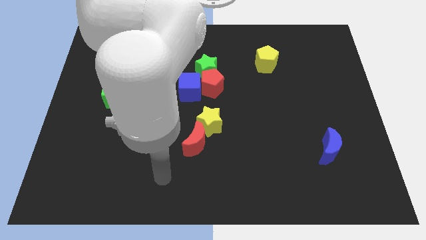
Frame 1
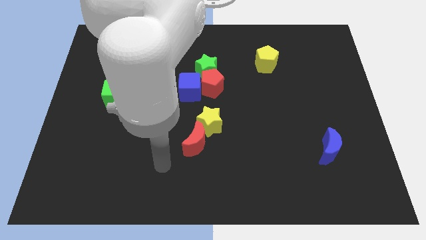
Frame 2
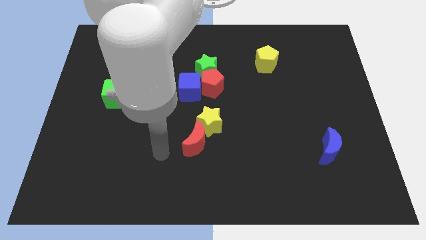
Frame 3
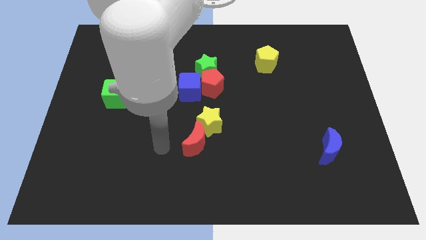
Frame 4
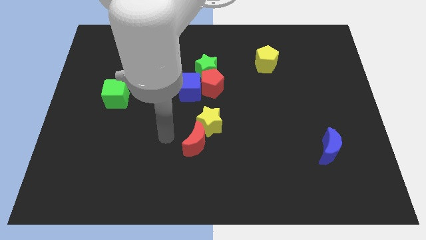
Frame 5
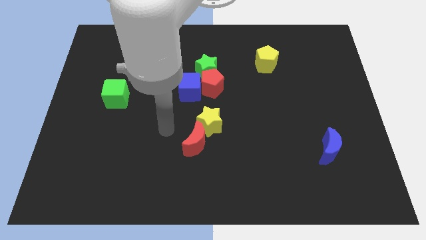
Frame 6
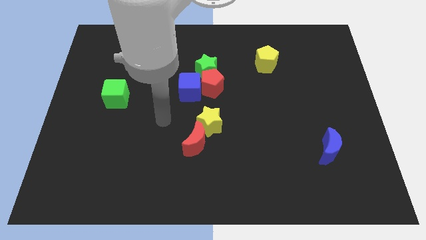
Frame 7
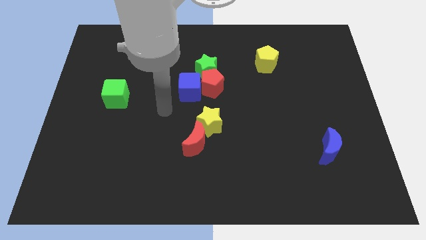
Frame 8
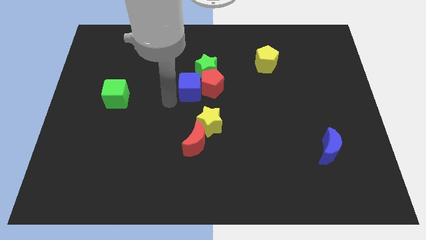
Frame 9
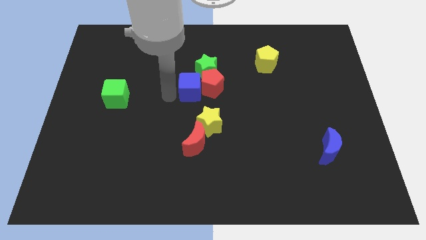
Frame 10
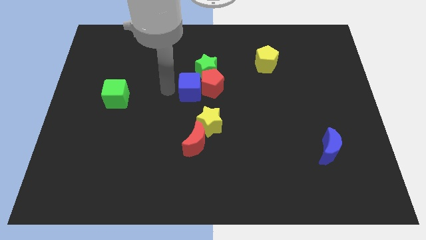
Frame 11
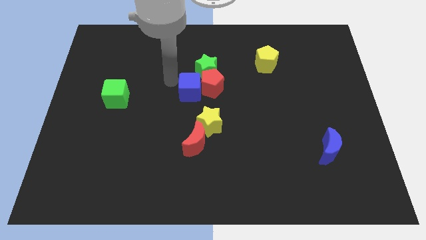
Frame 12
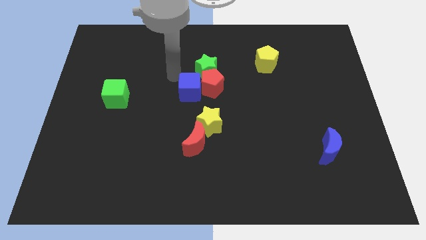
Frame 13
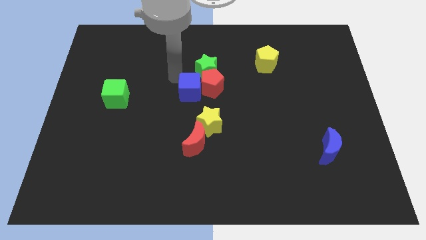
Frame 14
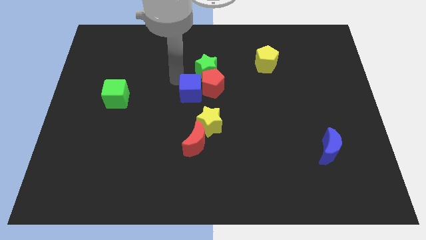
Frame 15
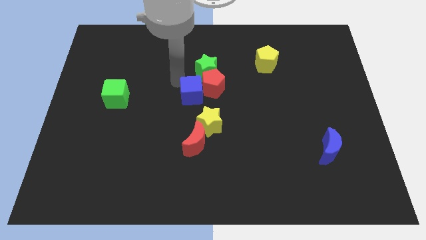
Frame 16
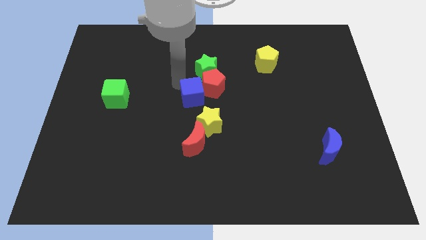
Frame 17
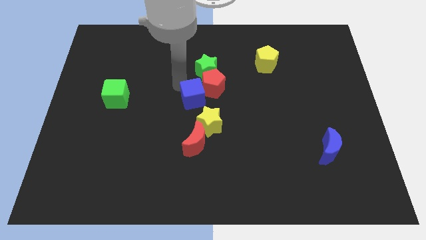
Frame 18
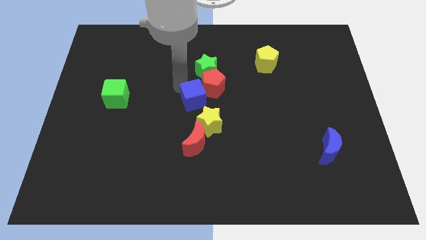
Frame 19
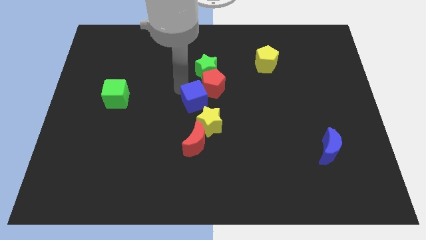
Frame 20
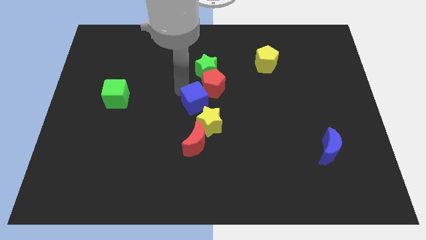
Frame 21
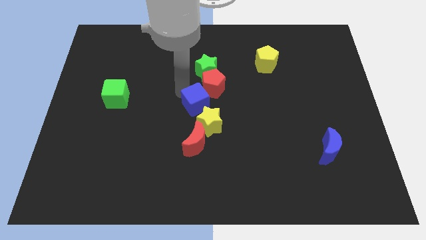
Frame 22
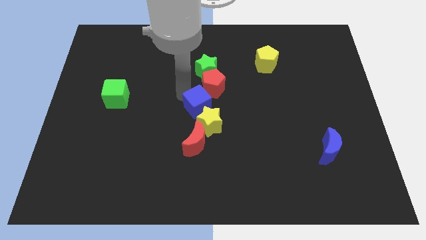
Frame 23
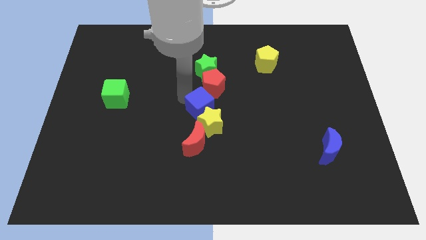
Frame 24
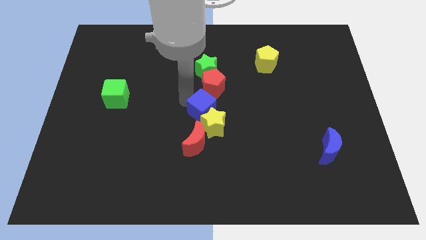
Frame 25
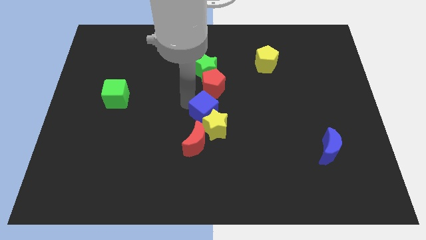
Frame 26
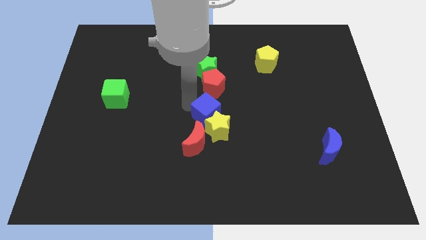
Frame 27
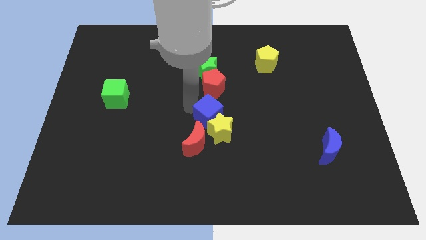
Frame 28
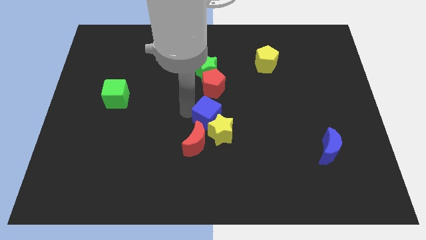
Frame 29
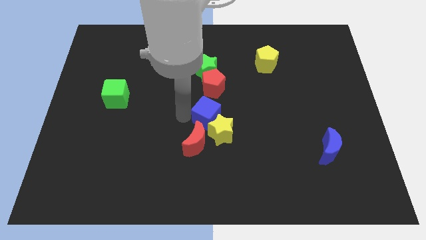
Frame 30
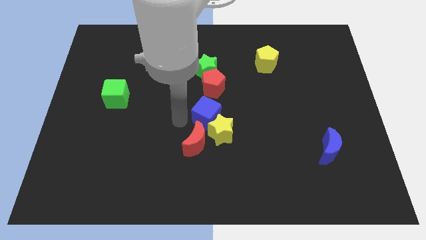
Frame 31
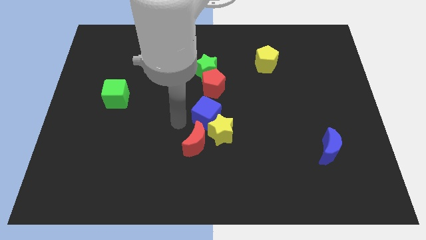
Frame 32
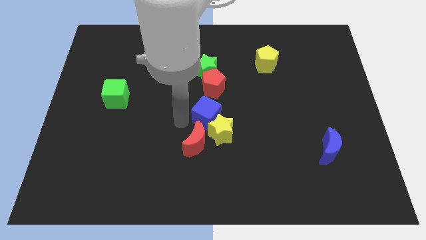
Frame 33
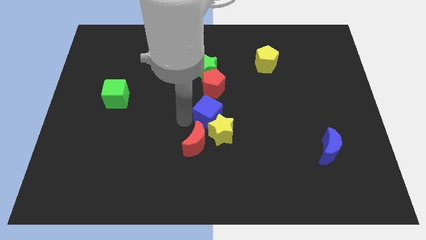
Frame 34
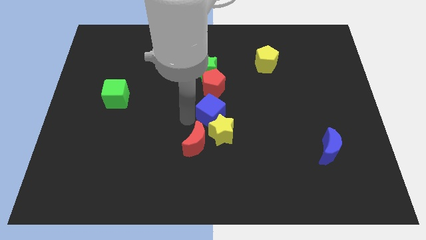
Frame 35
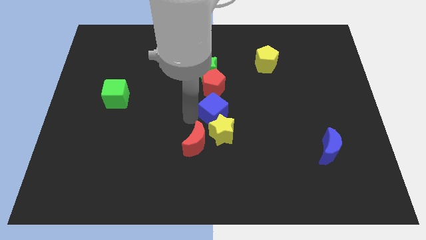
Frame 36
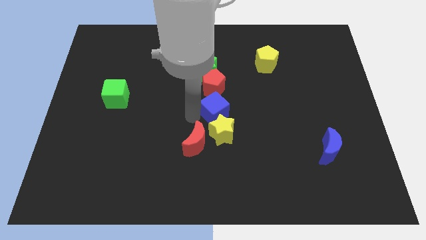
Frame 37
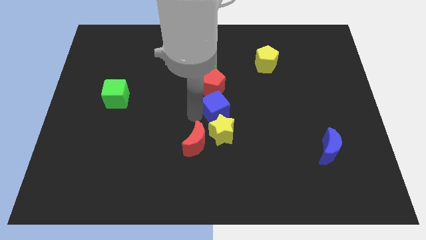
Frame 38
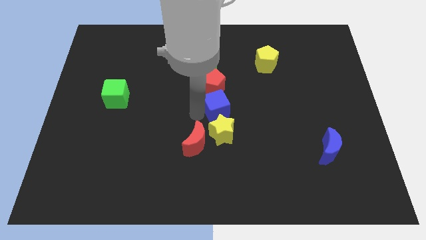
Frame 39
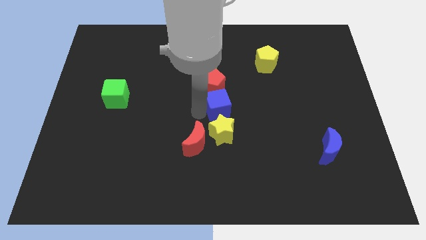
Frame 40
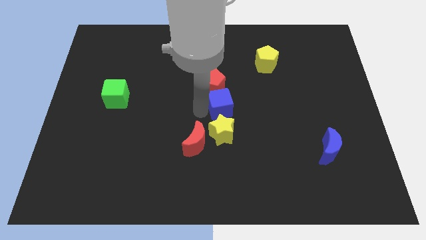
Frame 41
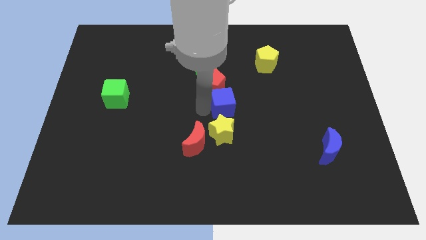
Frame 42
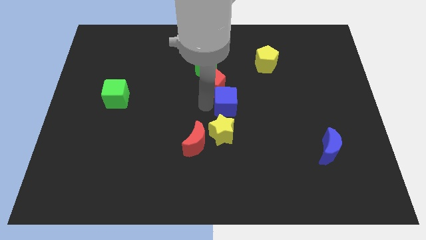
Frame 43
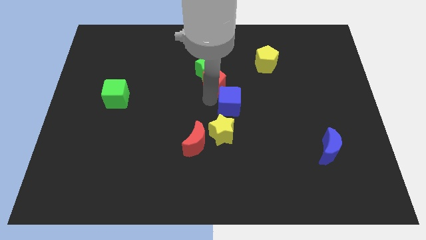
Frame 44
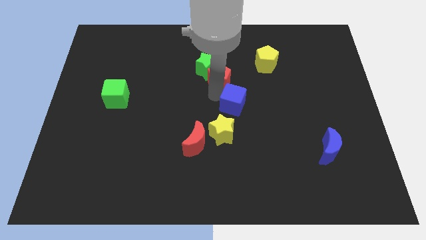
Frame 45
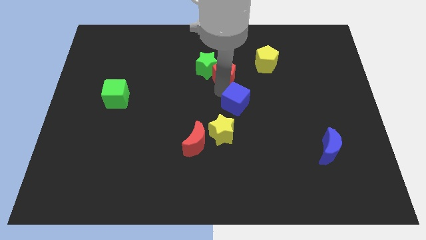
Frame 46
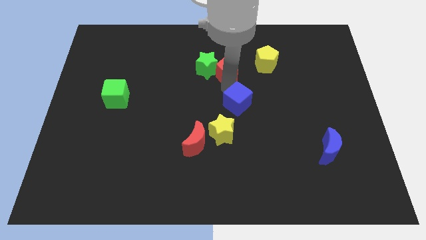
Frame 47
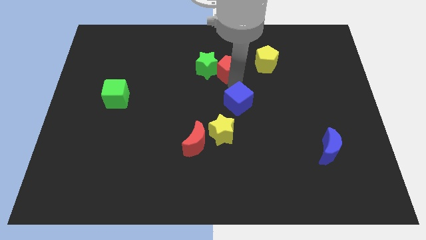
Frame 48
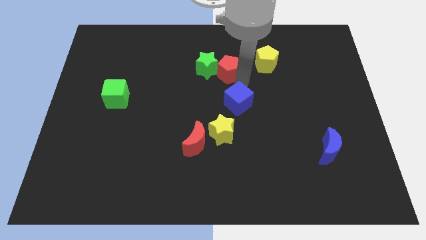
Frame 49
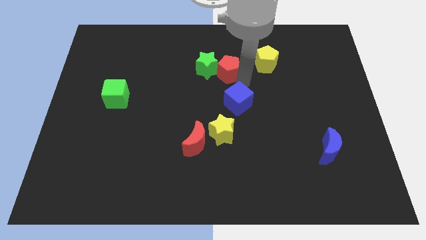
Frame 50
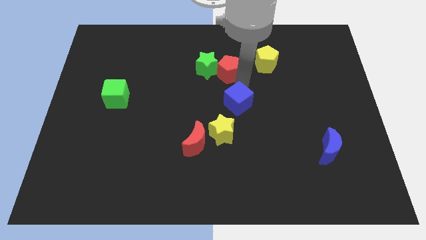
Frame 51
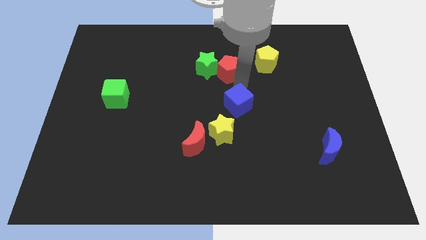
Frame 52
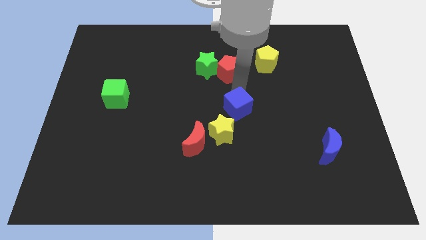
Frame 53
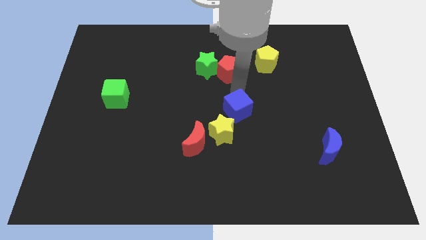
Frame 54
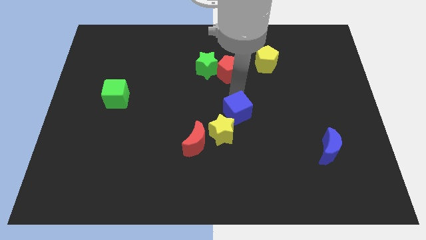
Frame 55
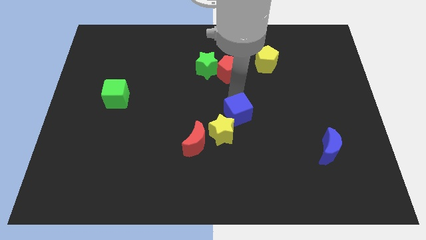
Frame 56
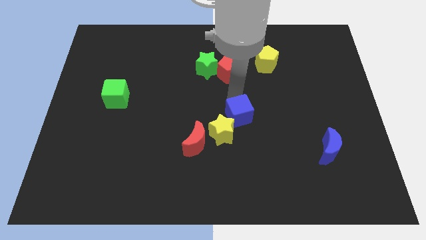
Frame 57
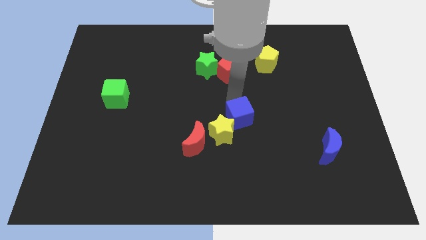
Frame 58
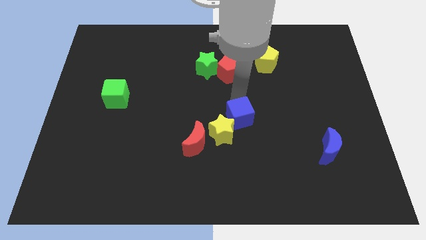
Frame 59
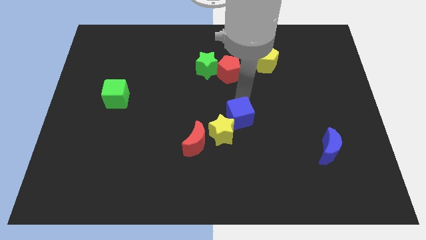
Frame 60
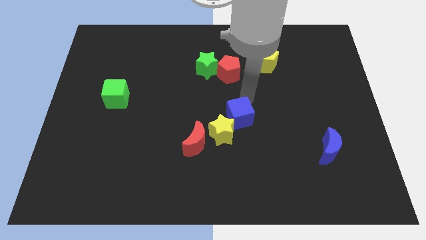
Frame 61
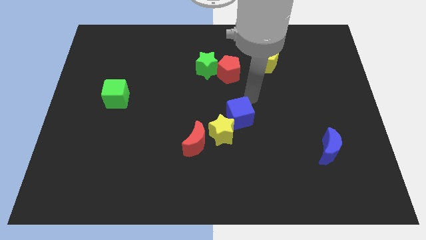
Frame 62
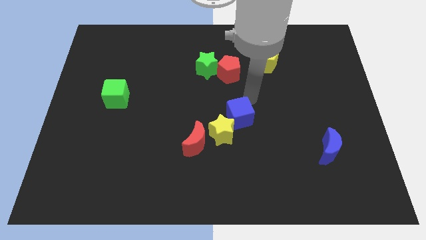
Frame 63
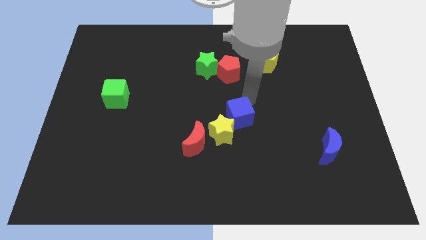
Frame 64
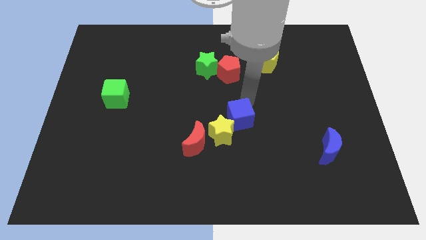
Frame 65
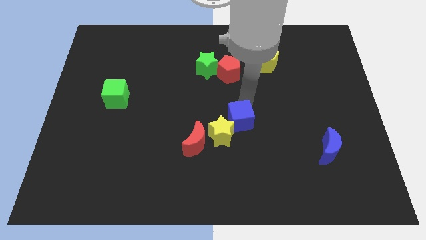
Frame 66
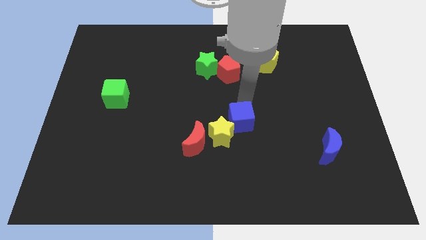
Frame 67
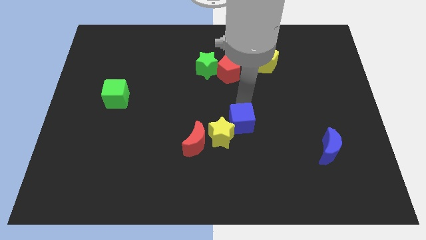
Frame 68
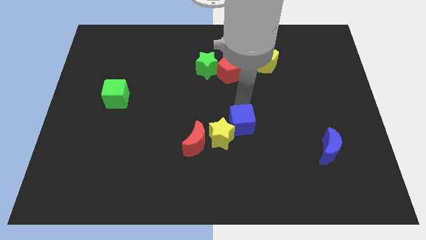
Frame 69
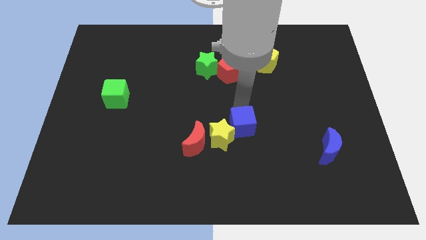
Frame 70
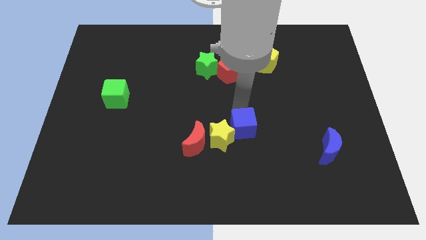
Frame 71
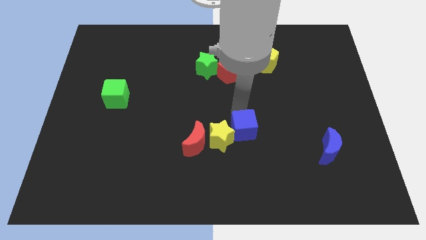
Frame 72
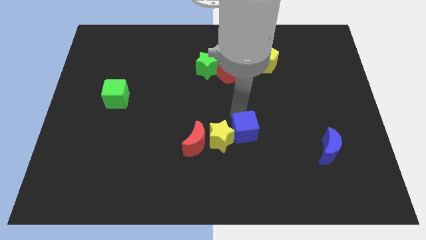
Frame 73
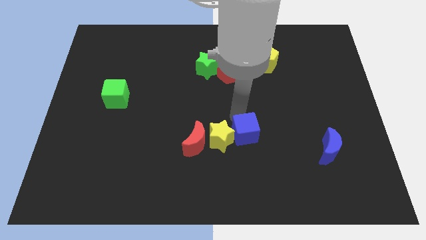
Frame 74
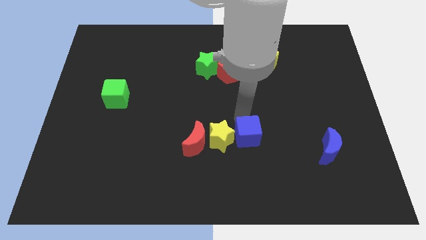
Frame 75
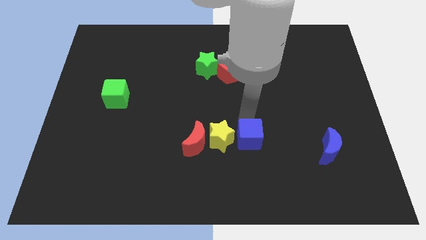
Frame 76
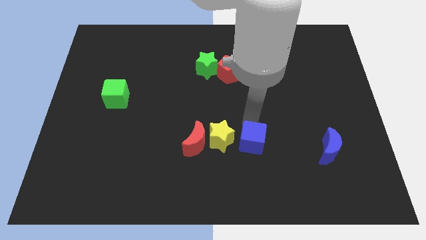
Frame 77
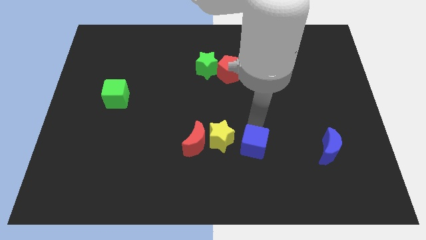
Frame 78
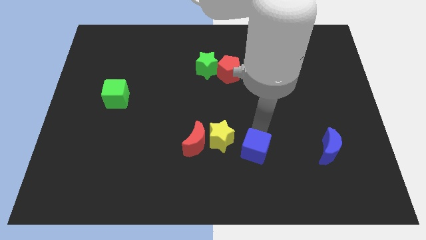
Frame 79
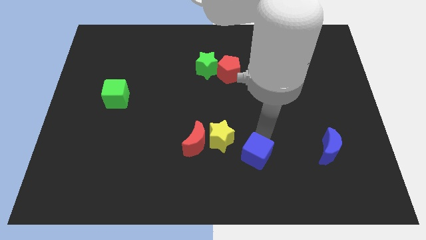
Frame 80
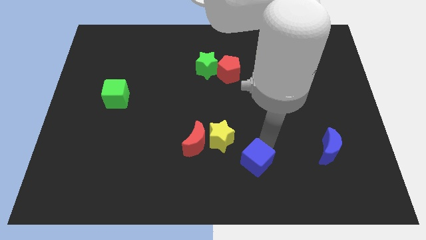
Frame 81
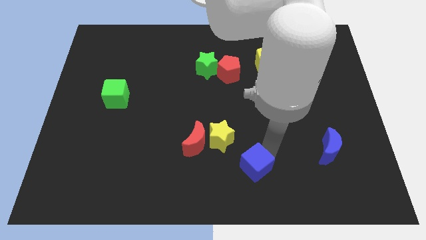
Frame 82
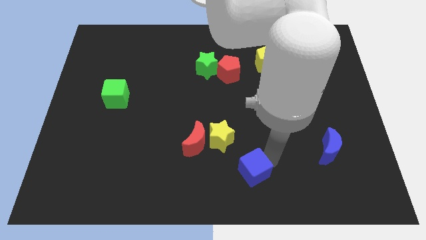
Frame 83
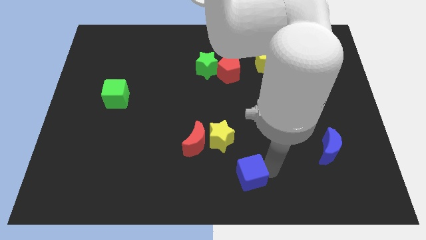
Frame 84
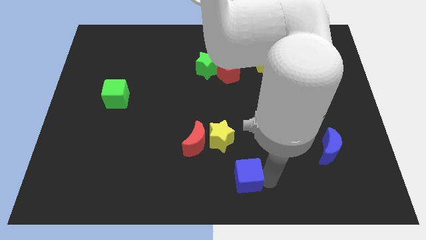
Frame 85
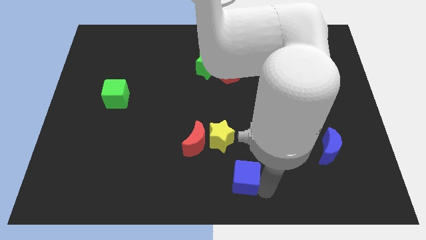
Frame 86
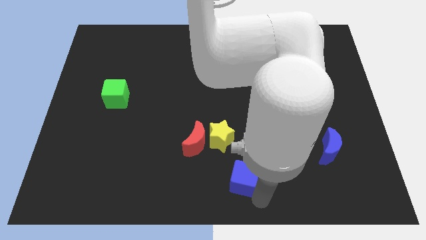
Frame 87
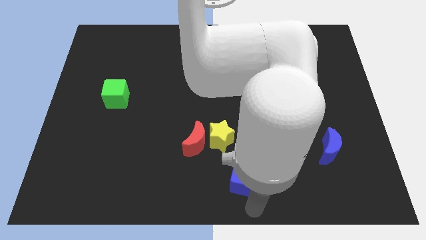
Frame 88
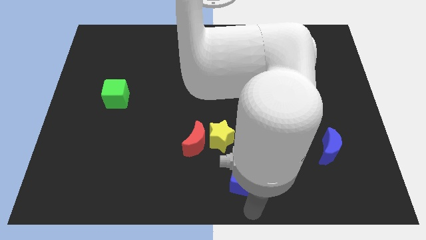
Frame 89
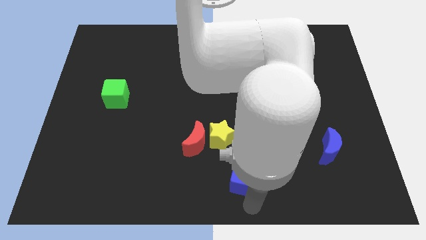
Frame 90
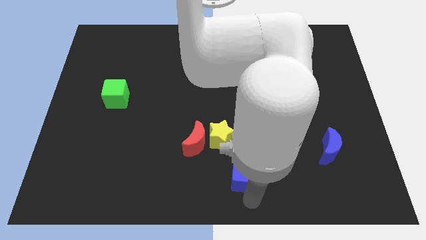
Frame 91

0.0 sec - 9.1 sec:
move the blue cube diagonally down and to the right of the red moon
